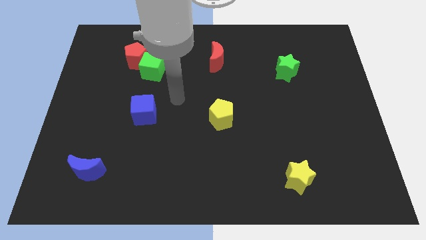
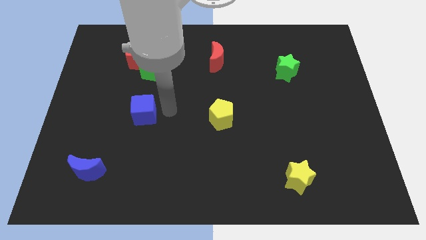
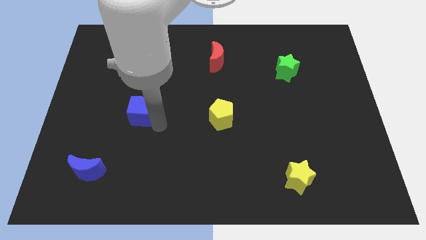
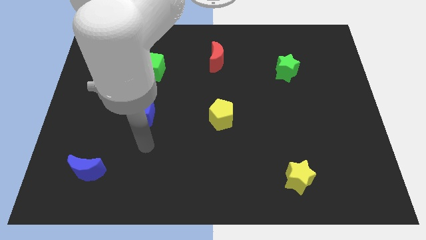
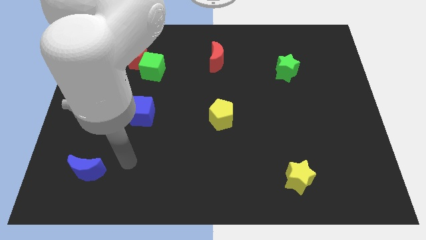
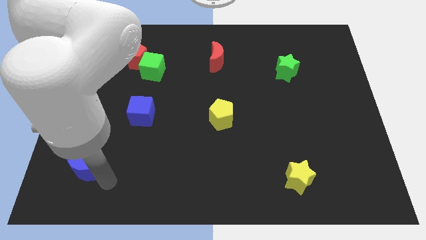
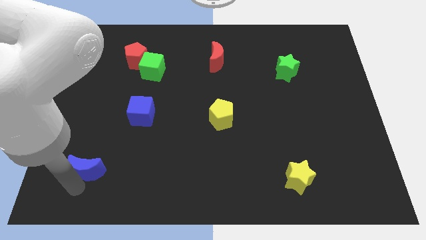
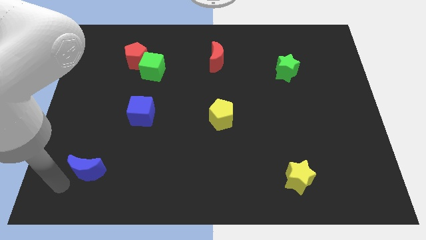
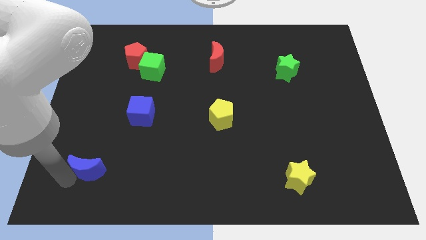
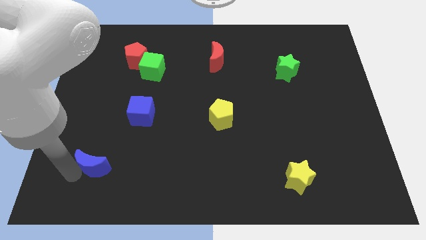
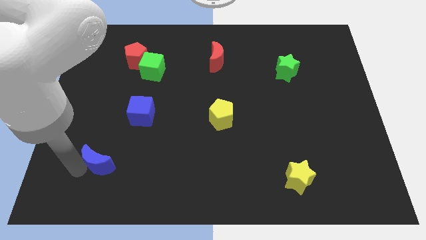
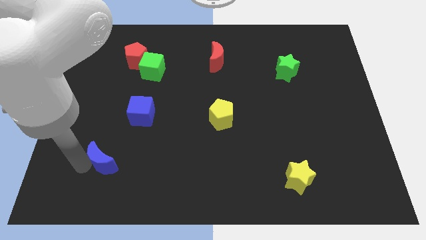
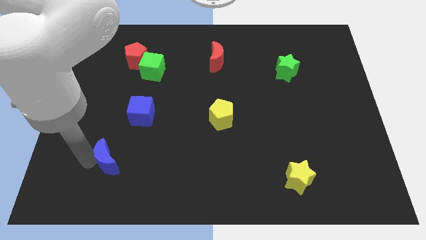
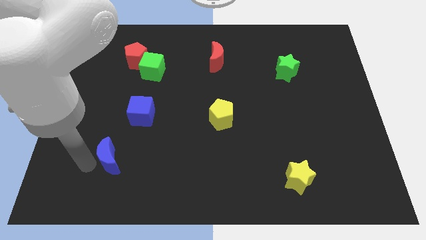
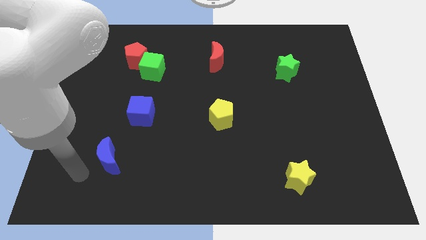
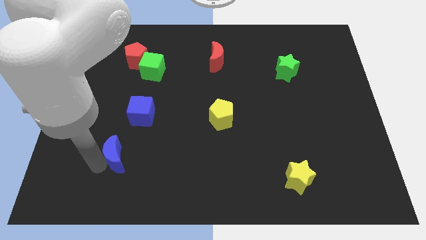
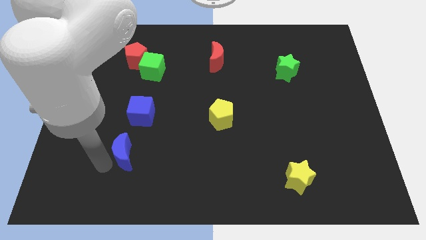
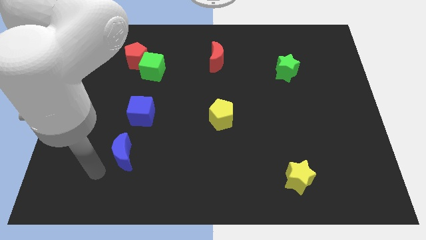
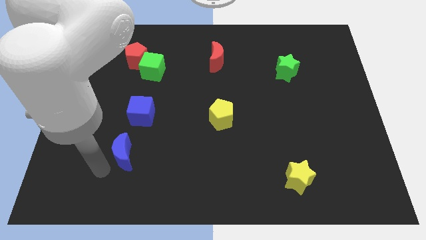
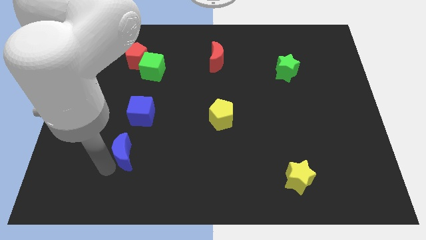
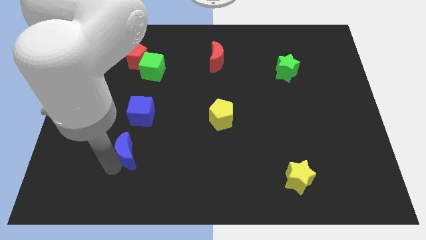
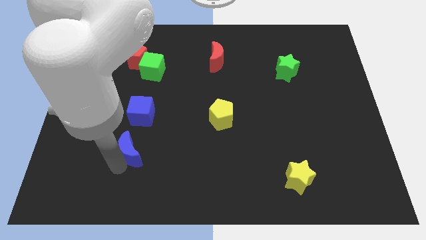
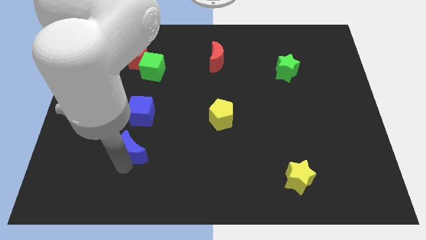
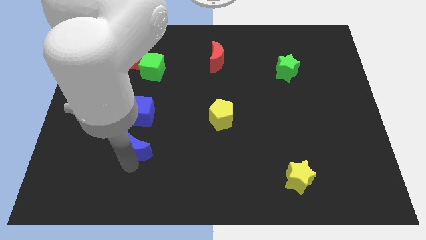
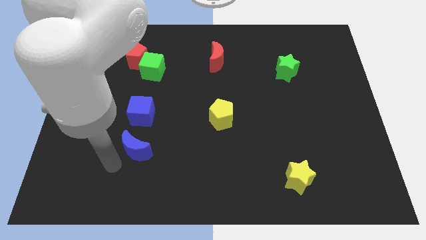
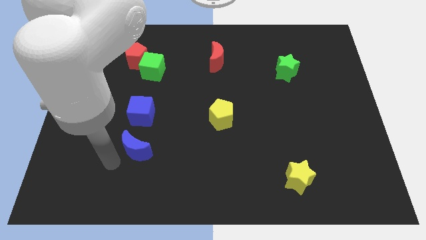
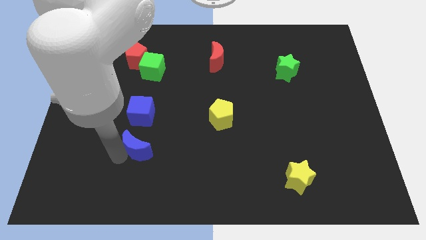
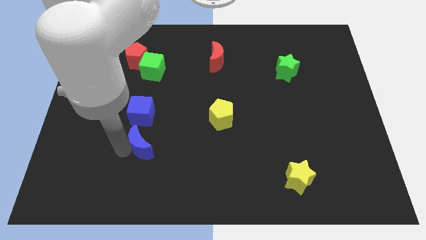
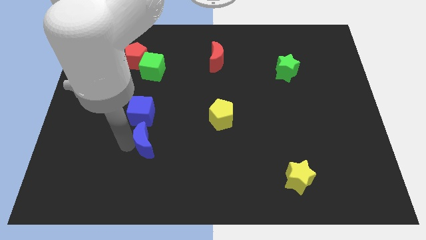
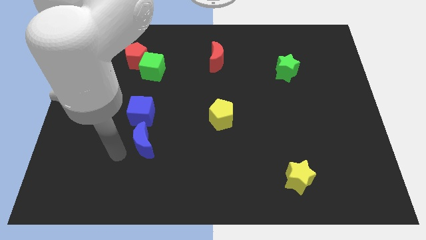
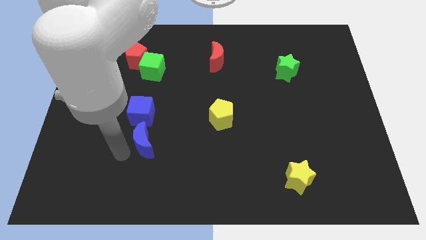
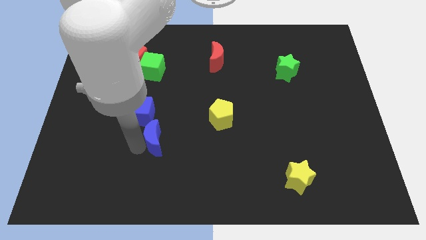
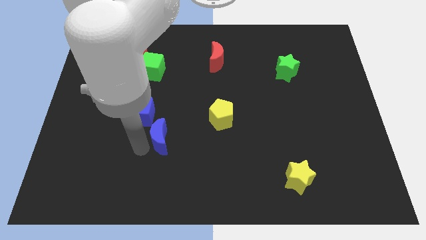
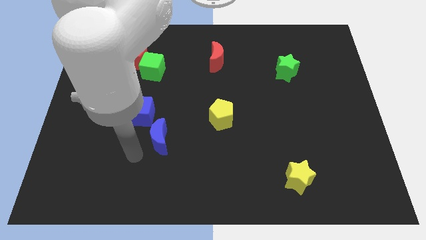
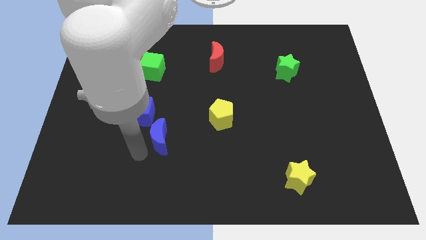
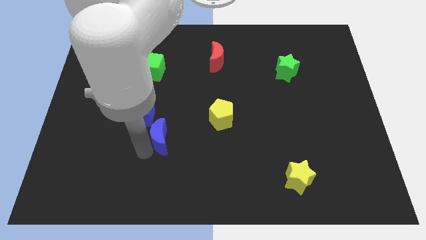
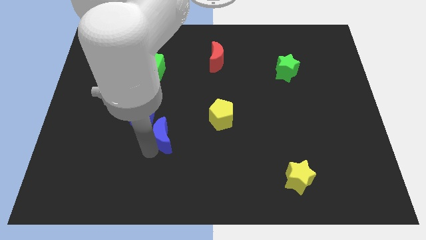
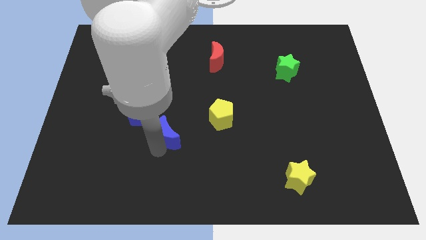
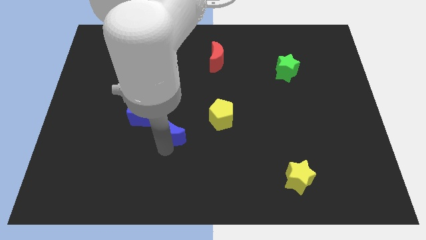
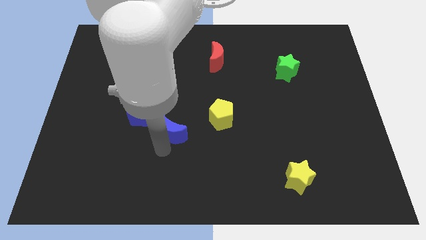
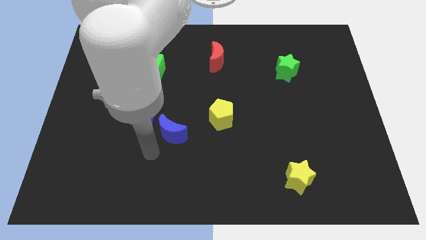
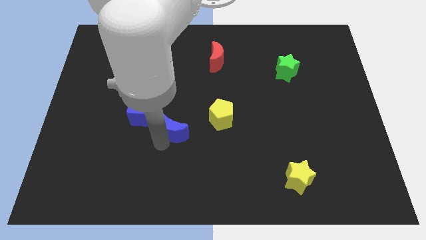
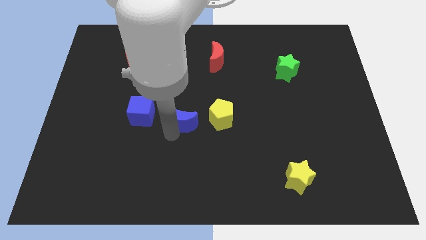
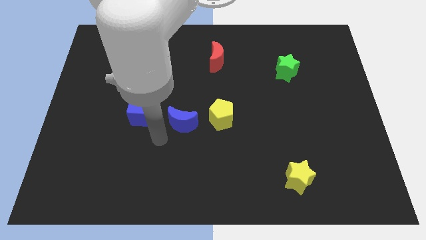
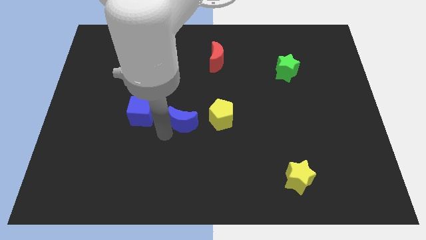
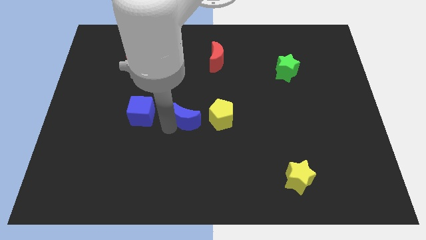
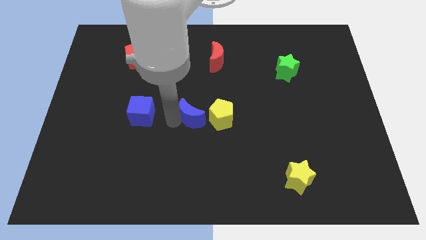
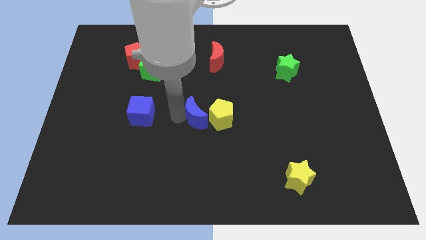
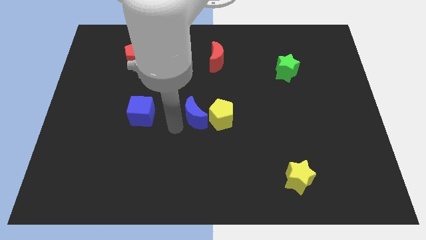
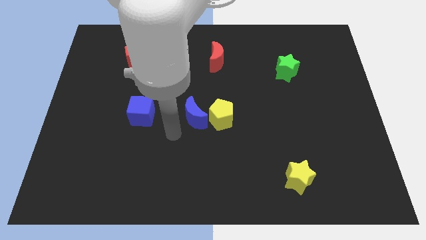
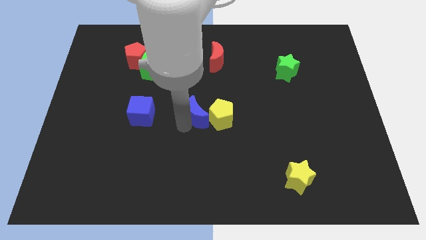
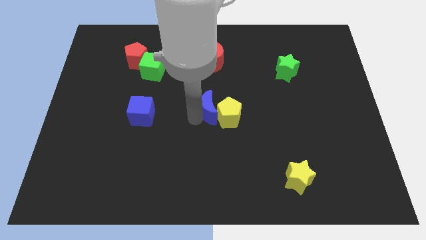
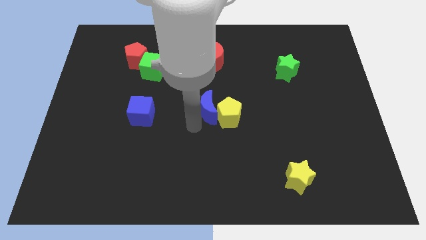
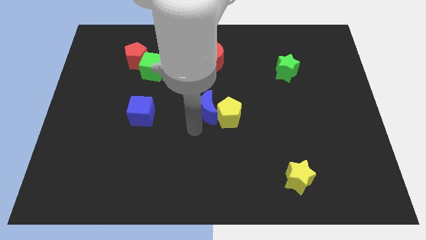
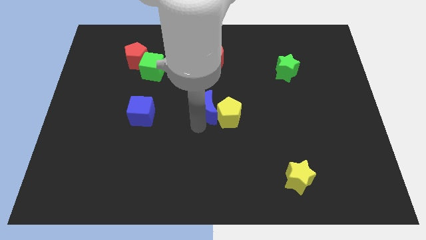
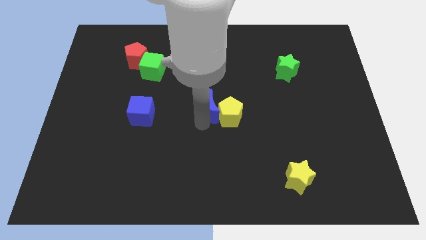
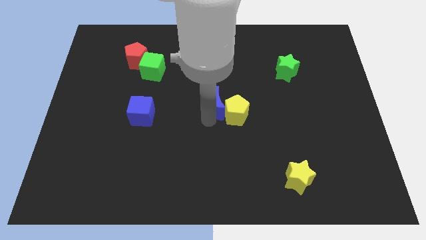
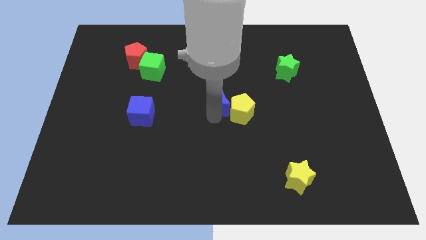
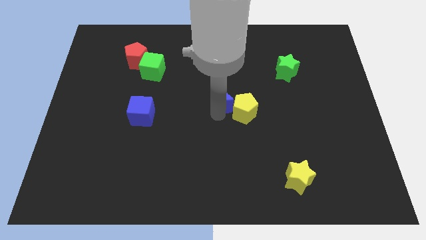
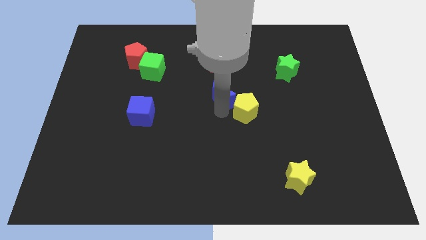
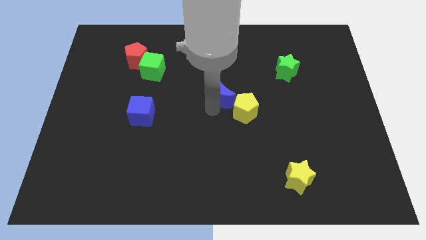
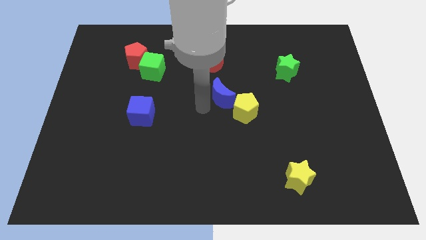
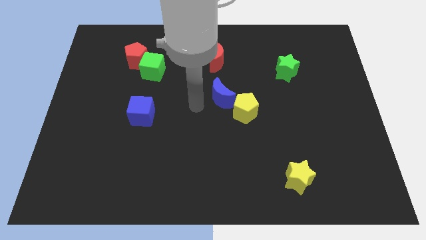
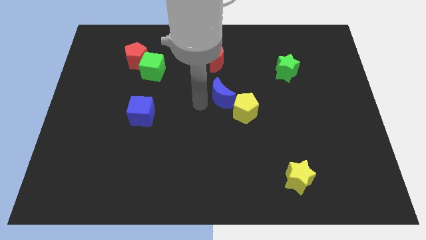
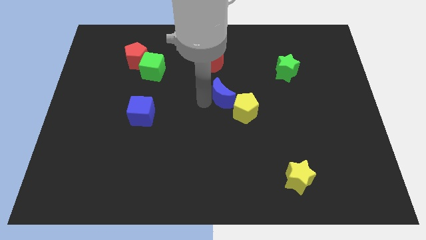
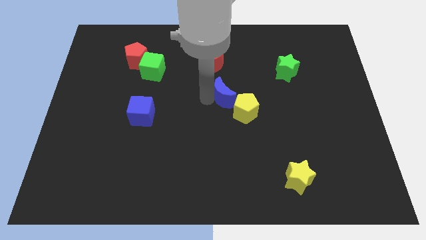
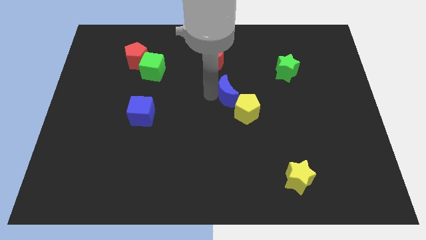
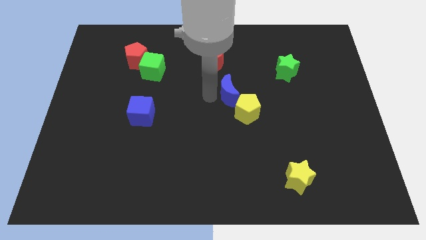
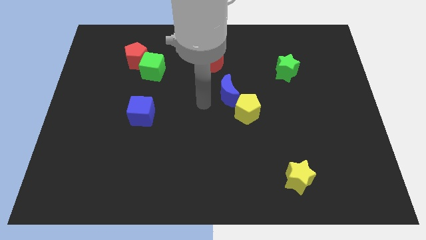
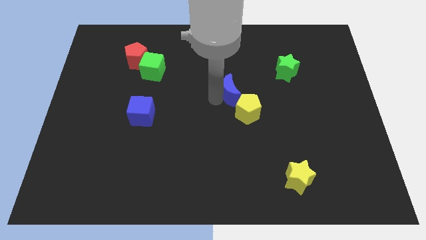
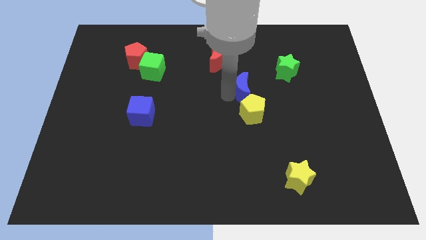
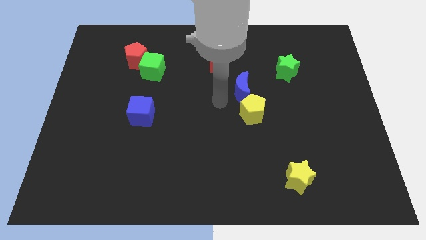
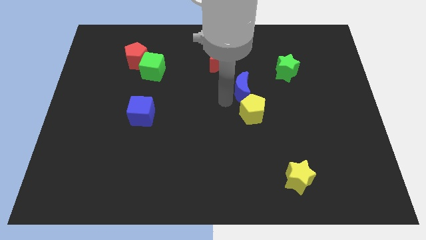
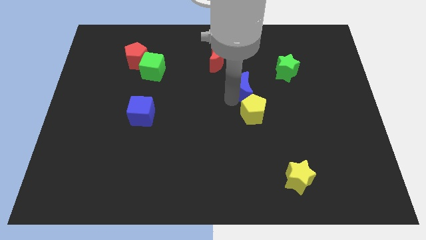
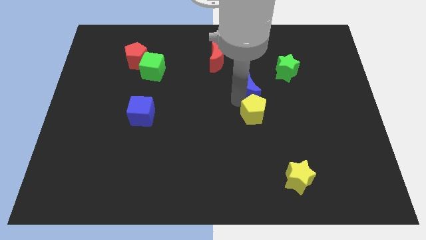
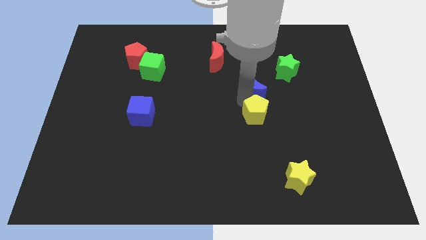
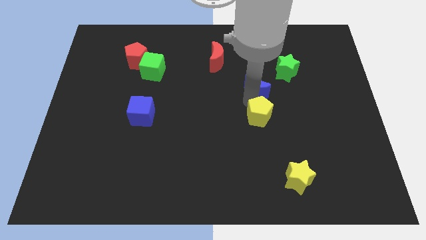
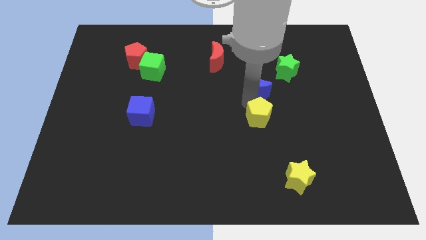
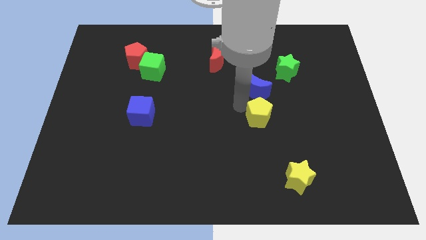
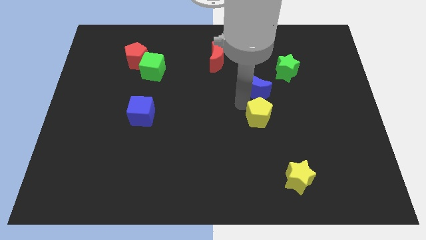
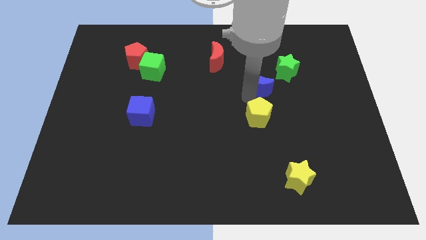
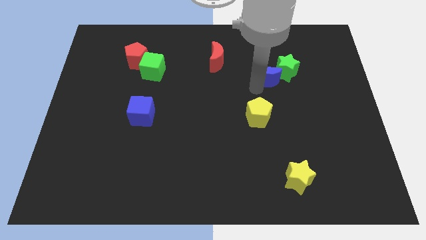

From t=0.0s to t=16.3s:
slide the blue moon towards the green star
